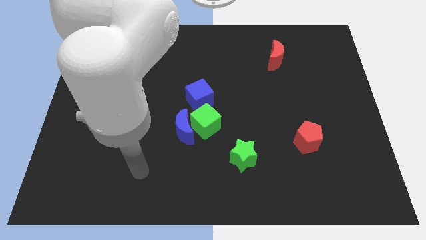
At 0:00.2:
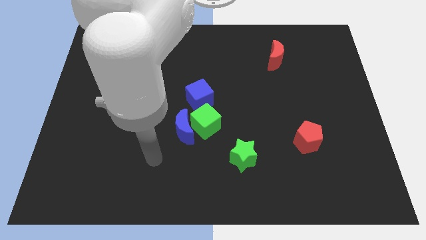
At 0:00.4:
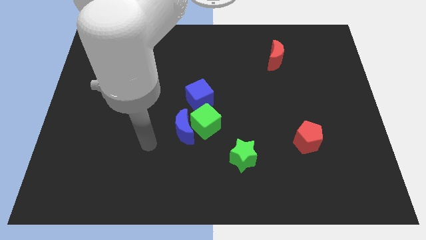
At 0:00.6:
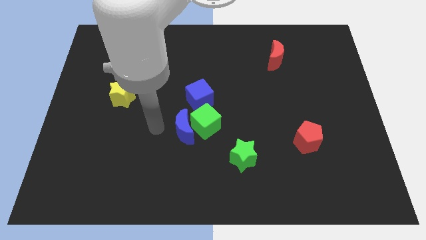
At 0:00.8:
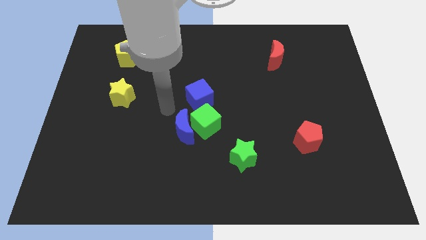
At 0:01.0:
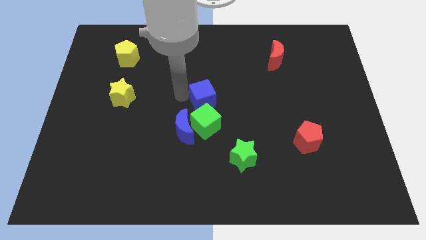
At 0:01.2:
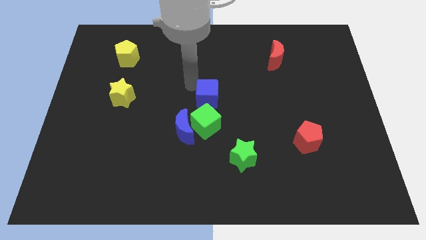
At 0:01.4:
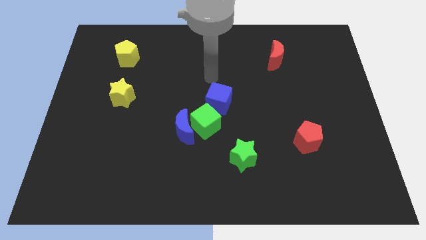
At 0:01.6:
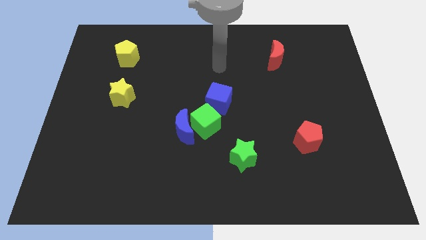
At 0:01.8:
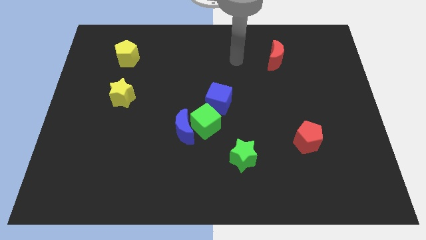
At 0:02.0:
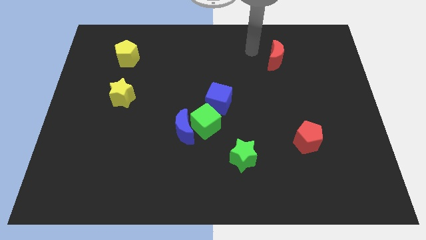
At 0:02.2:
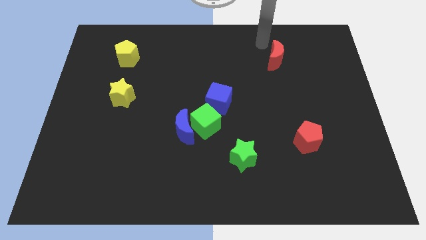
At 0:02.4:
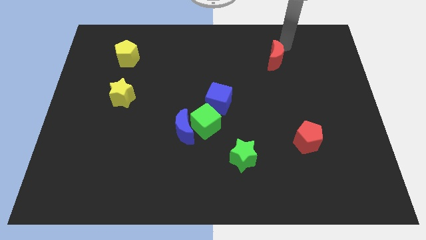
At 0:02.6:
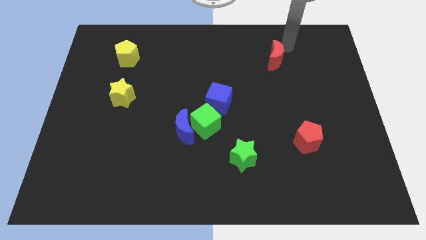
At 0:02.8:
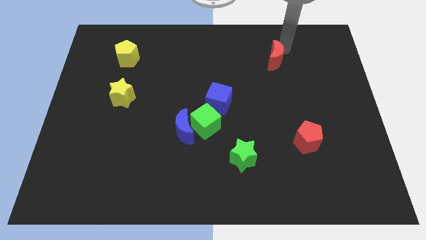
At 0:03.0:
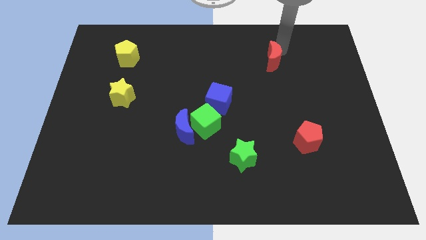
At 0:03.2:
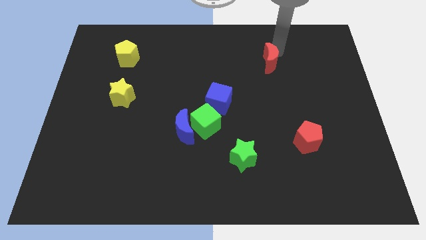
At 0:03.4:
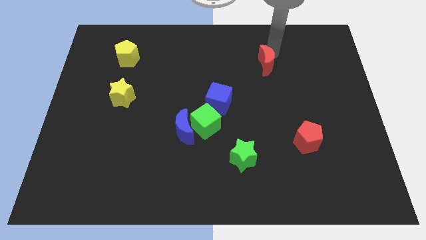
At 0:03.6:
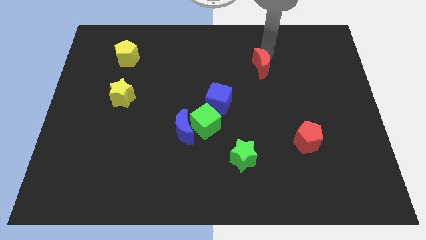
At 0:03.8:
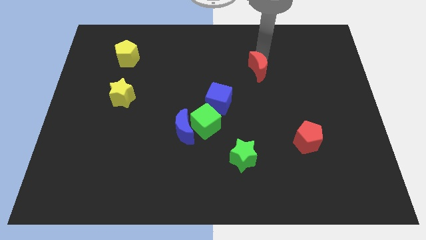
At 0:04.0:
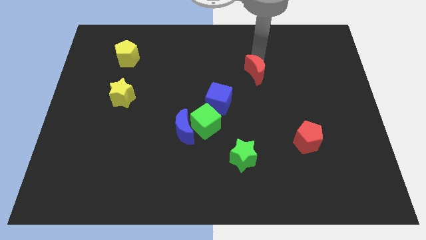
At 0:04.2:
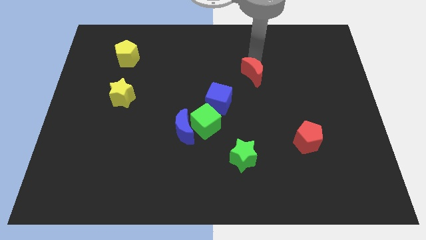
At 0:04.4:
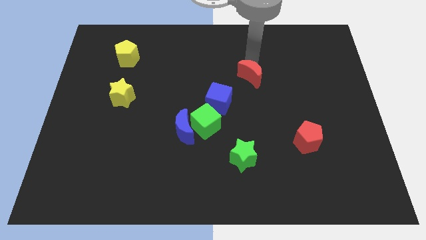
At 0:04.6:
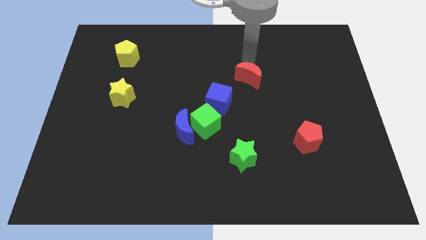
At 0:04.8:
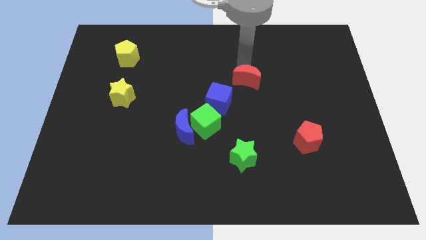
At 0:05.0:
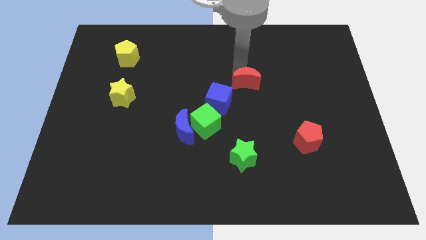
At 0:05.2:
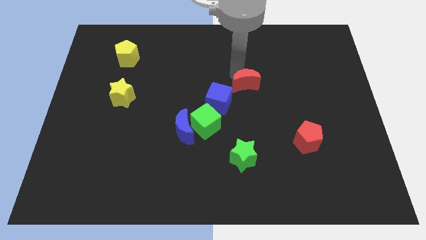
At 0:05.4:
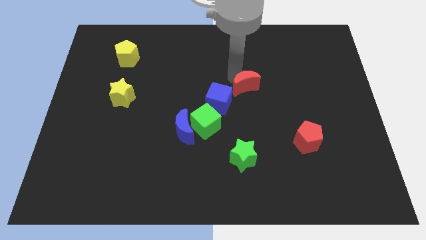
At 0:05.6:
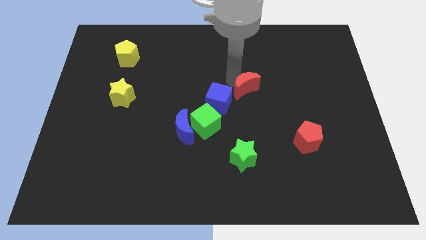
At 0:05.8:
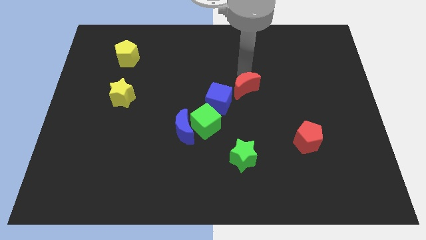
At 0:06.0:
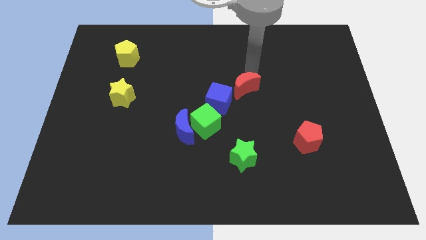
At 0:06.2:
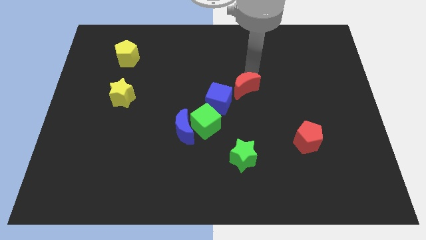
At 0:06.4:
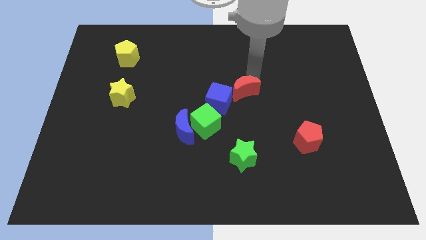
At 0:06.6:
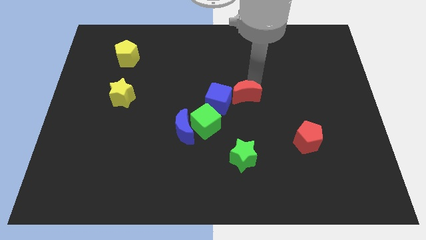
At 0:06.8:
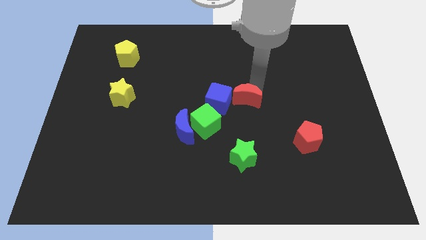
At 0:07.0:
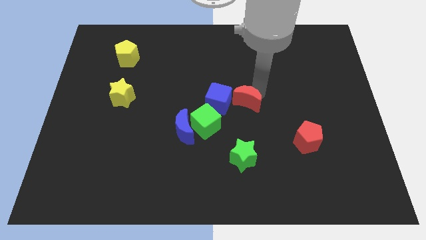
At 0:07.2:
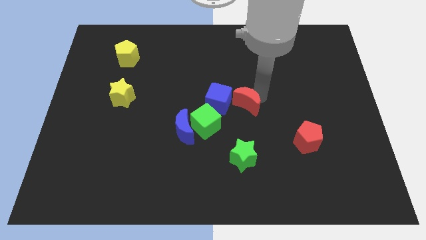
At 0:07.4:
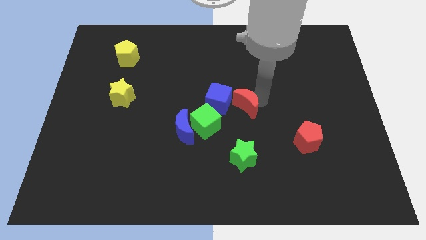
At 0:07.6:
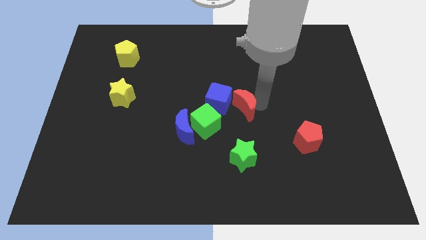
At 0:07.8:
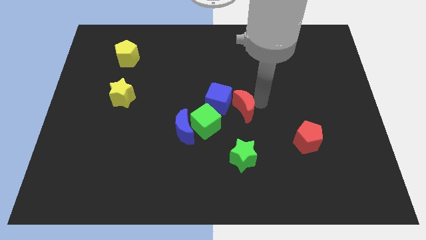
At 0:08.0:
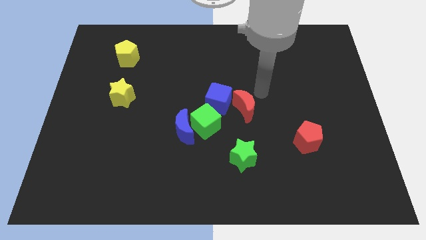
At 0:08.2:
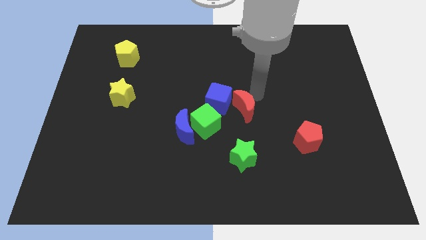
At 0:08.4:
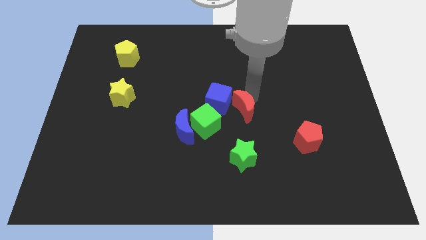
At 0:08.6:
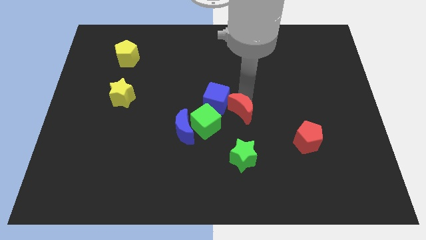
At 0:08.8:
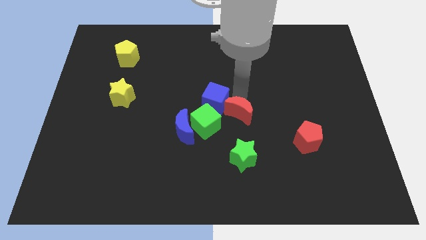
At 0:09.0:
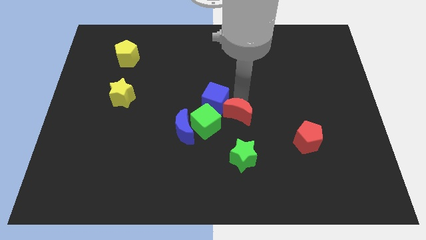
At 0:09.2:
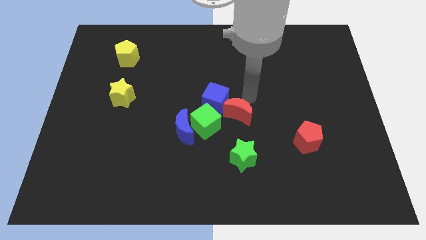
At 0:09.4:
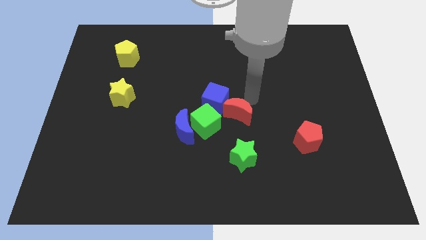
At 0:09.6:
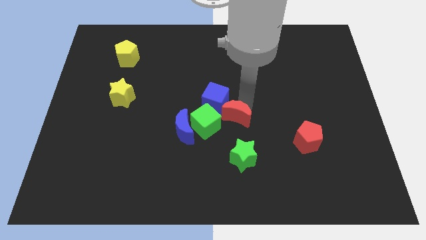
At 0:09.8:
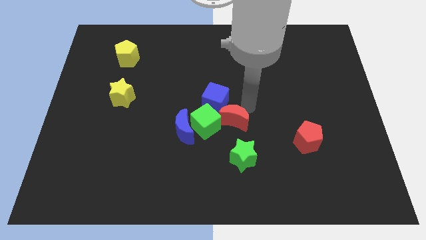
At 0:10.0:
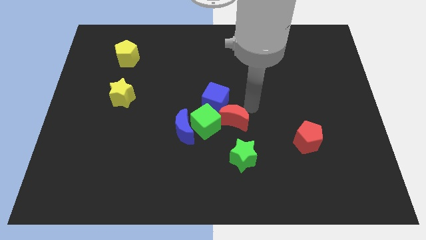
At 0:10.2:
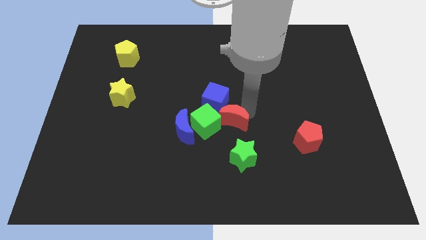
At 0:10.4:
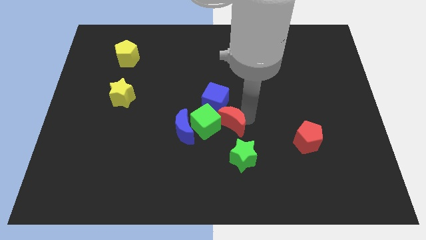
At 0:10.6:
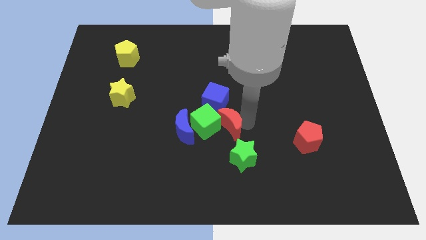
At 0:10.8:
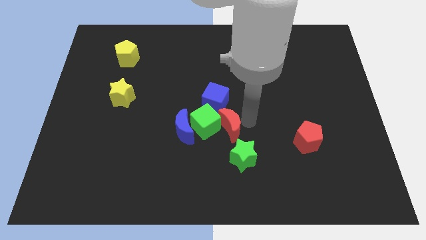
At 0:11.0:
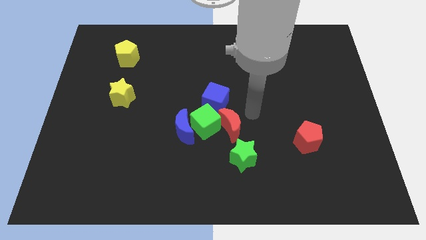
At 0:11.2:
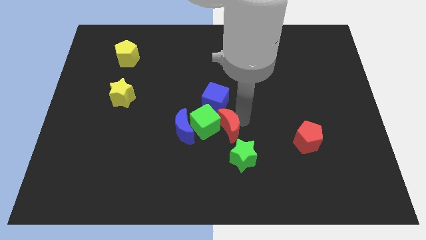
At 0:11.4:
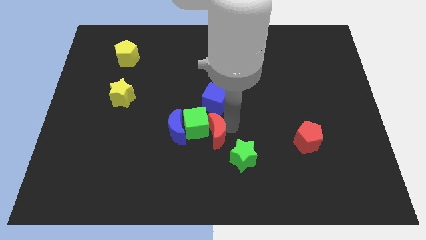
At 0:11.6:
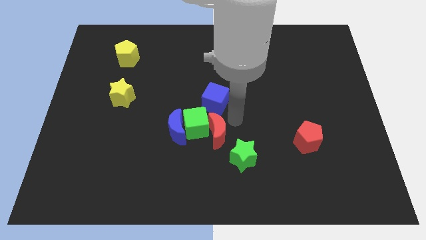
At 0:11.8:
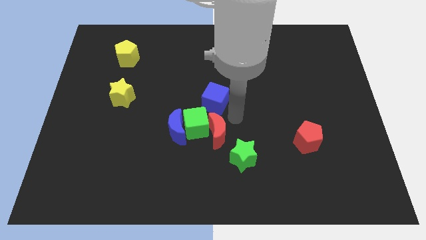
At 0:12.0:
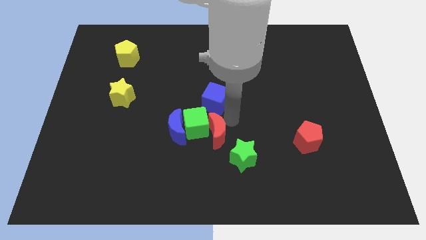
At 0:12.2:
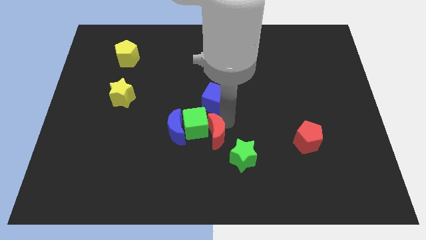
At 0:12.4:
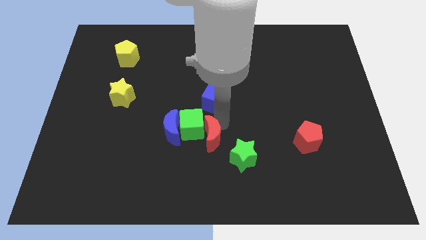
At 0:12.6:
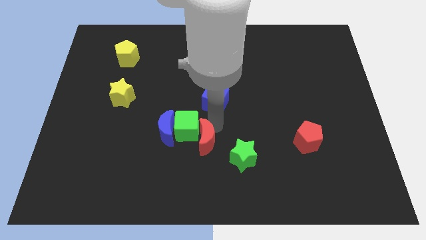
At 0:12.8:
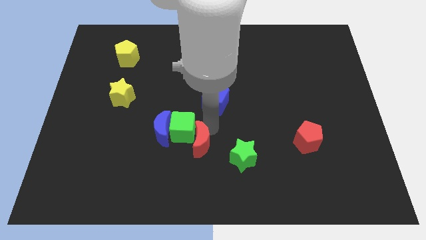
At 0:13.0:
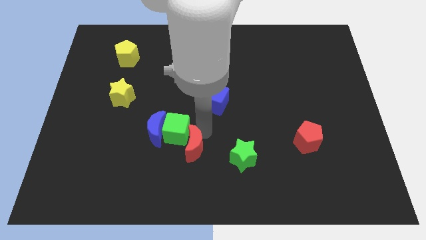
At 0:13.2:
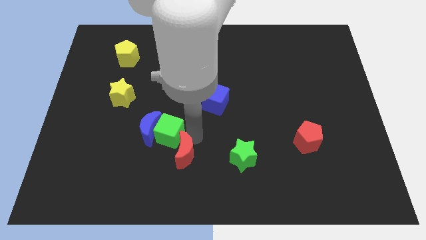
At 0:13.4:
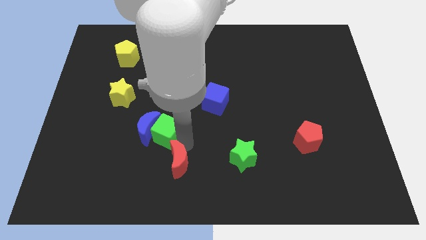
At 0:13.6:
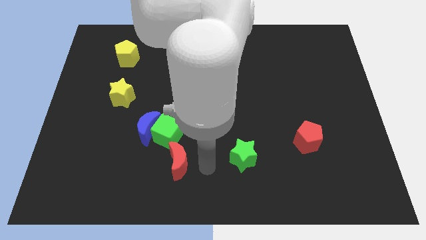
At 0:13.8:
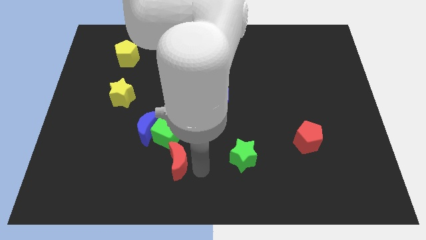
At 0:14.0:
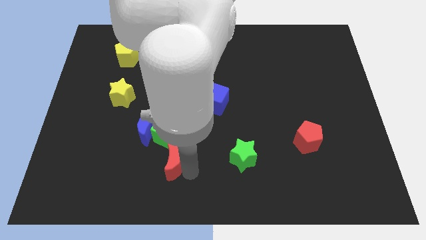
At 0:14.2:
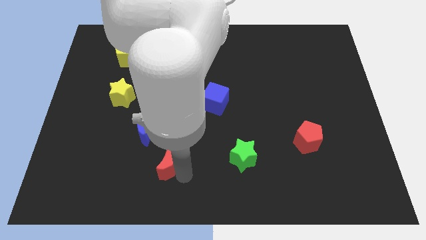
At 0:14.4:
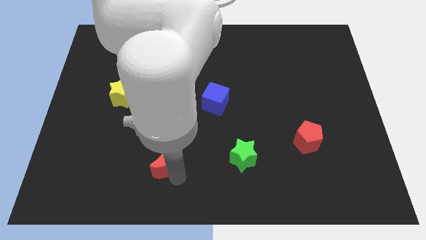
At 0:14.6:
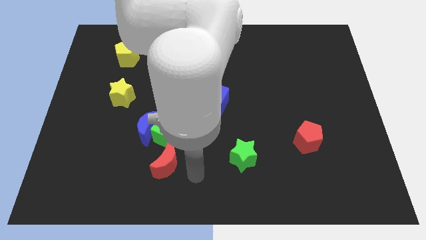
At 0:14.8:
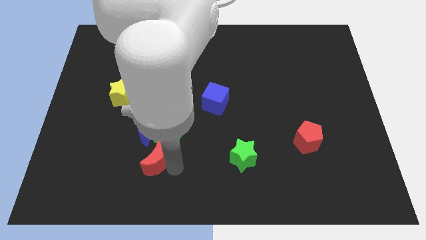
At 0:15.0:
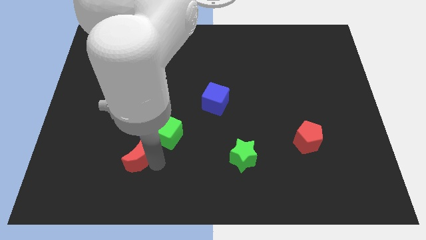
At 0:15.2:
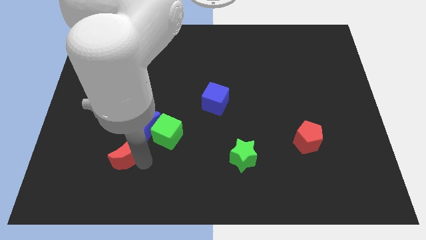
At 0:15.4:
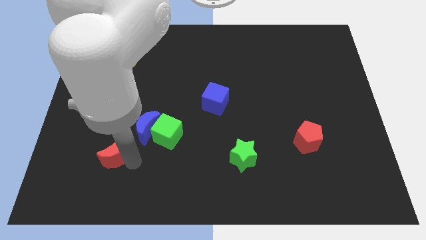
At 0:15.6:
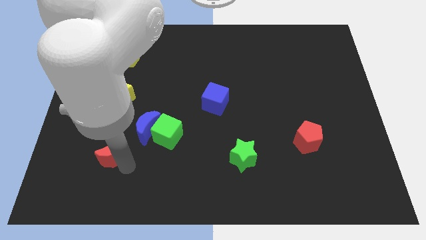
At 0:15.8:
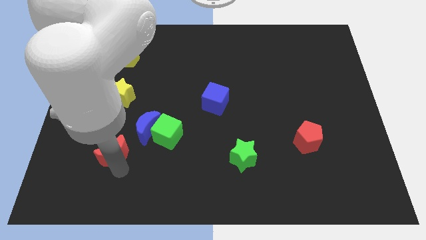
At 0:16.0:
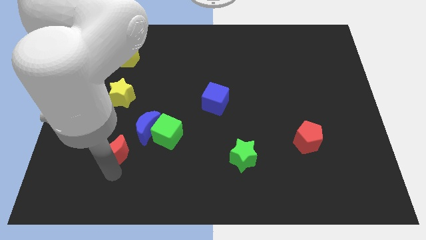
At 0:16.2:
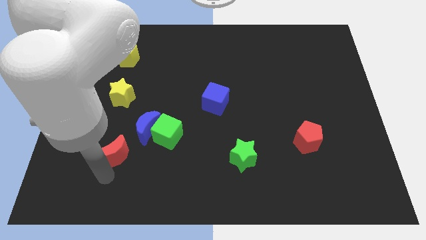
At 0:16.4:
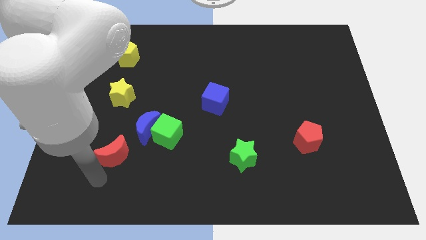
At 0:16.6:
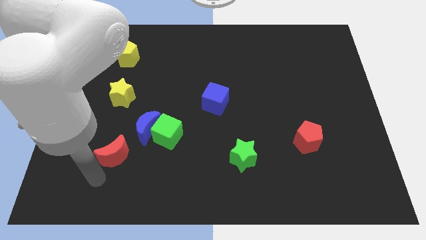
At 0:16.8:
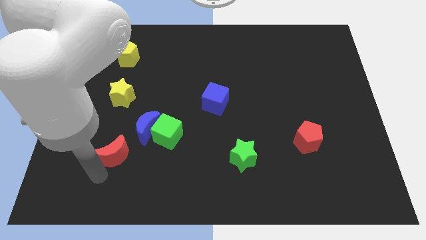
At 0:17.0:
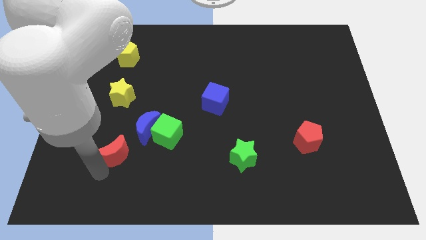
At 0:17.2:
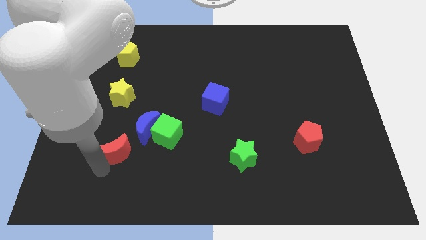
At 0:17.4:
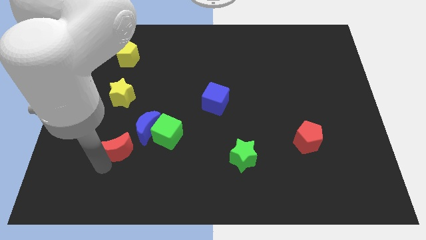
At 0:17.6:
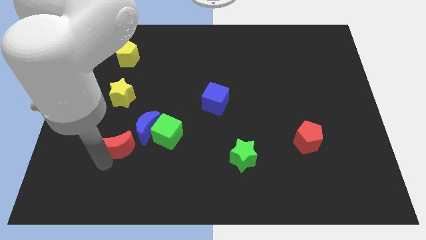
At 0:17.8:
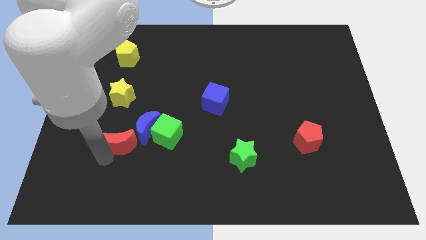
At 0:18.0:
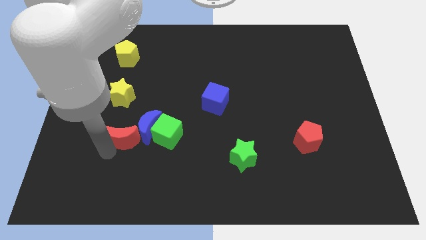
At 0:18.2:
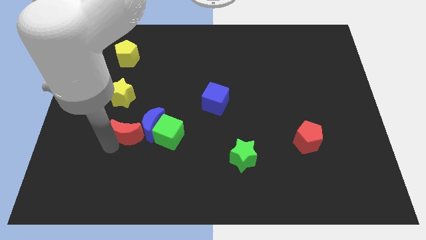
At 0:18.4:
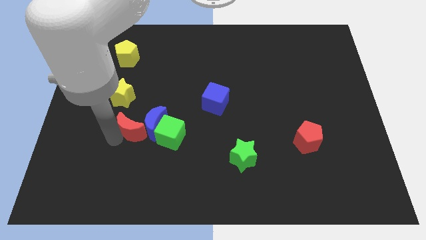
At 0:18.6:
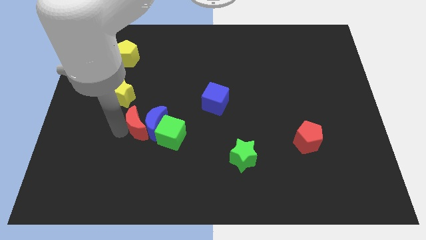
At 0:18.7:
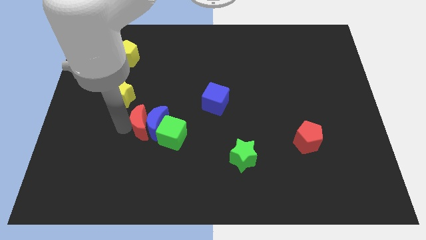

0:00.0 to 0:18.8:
put the red moon to the bottom left of the blue moon
